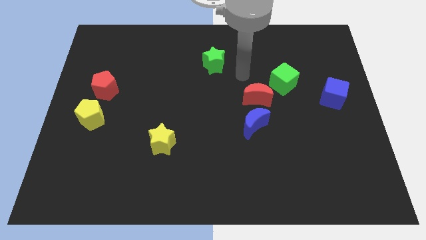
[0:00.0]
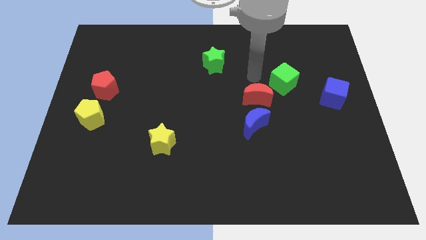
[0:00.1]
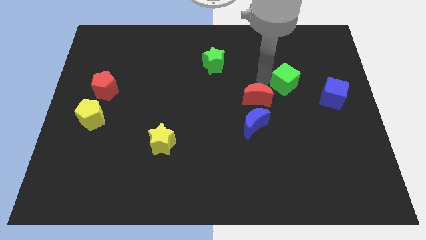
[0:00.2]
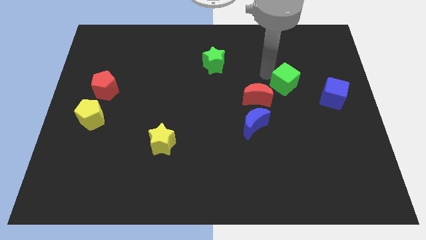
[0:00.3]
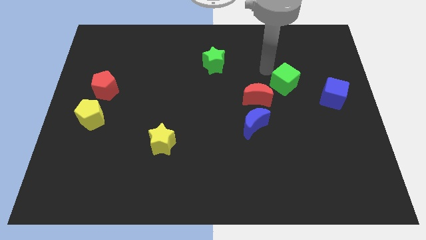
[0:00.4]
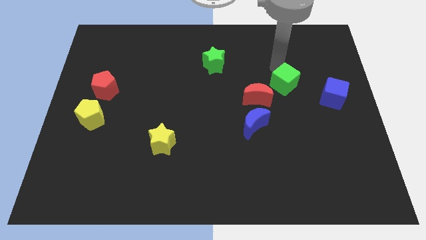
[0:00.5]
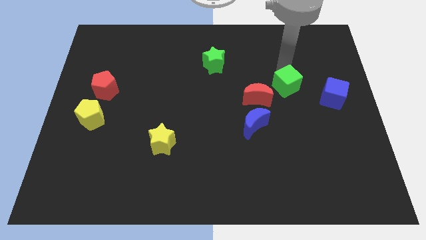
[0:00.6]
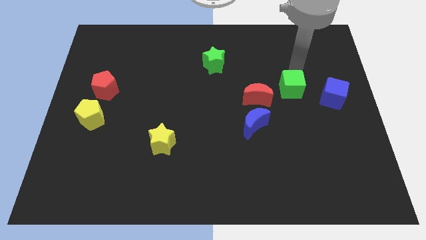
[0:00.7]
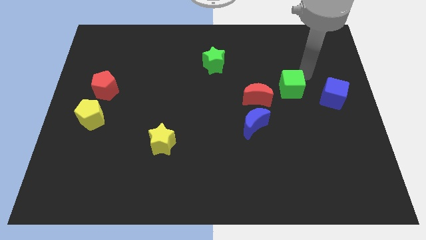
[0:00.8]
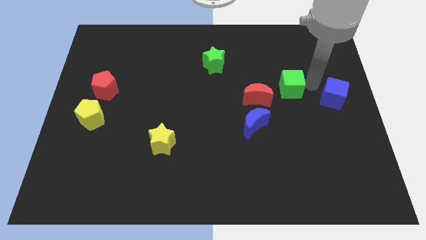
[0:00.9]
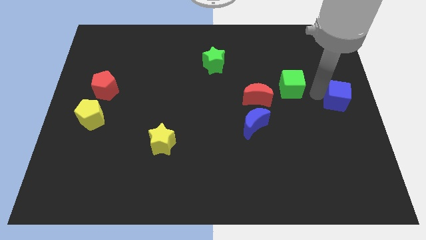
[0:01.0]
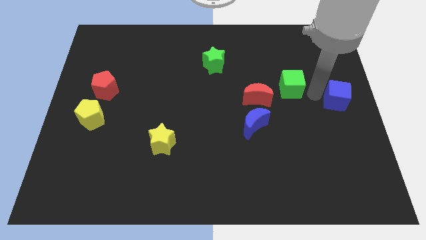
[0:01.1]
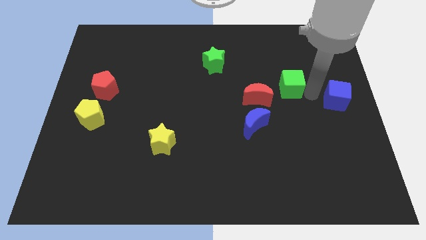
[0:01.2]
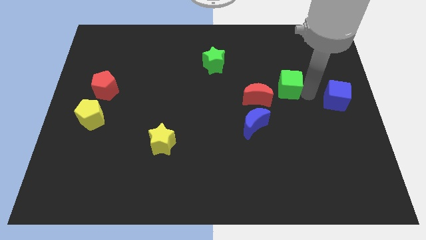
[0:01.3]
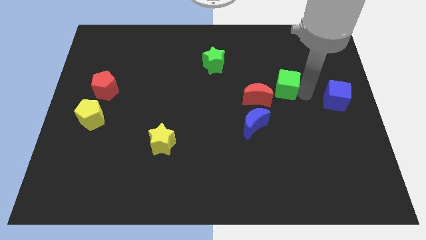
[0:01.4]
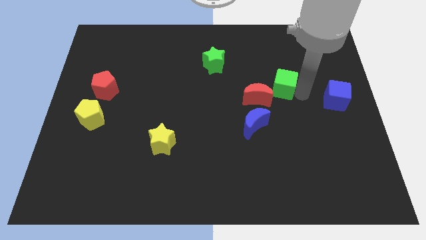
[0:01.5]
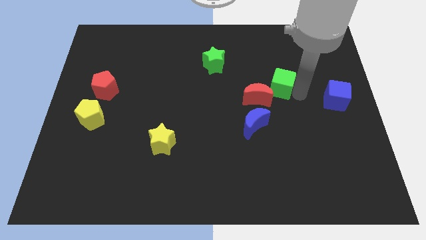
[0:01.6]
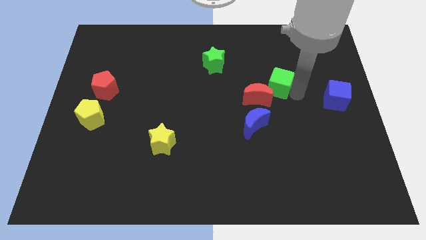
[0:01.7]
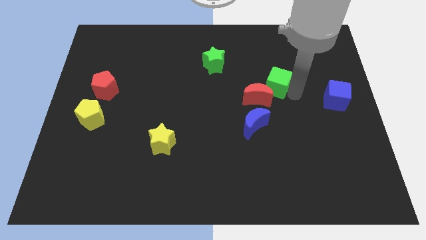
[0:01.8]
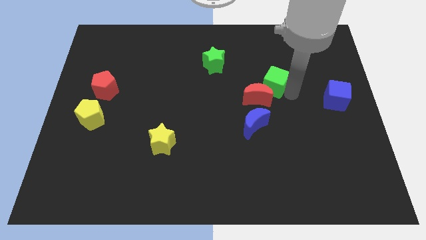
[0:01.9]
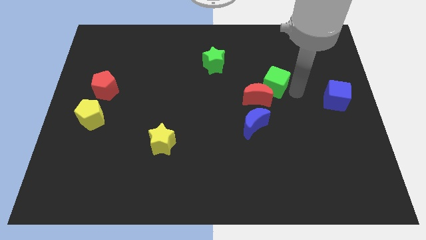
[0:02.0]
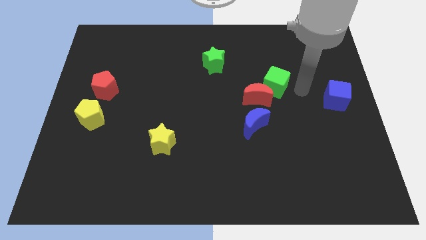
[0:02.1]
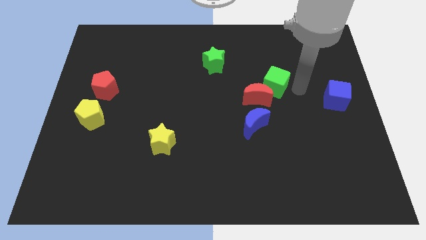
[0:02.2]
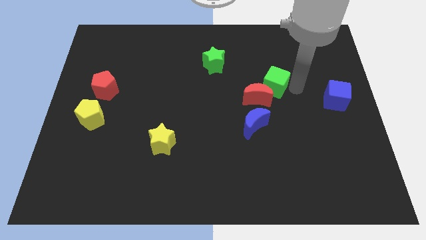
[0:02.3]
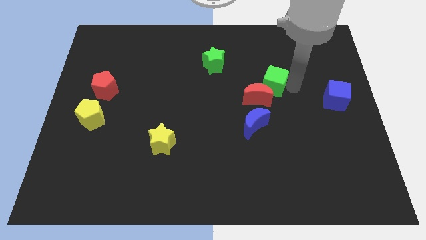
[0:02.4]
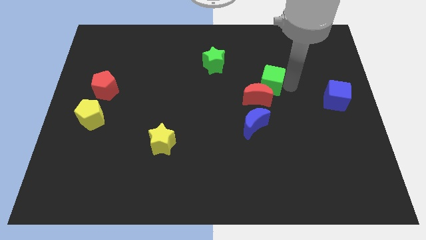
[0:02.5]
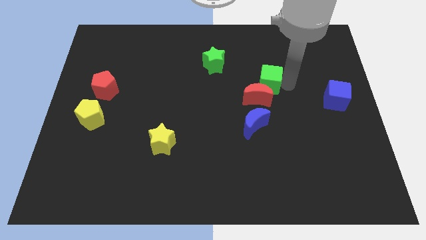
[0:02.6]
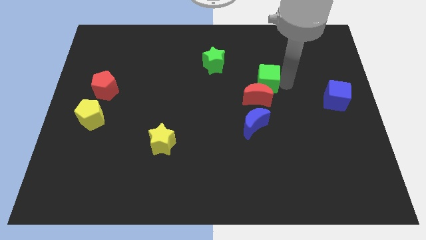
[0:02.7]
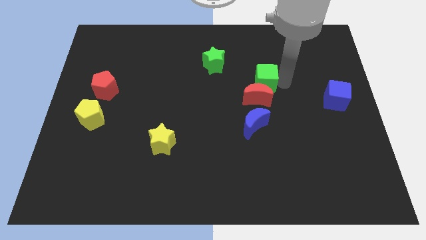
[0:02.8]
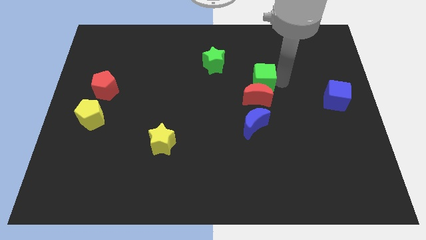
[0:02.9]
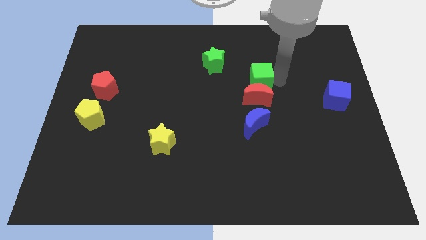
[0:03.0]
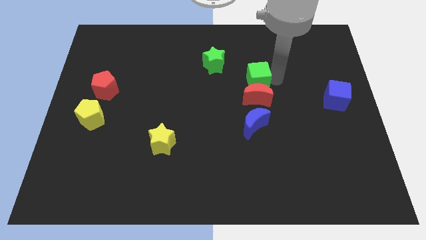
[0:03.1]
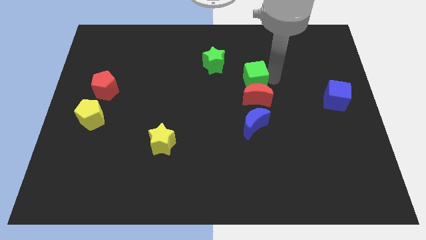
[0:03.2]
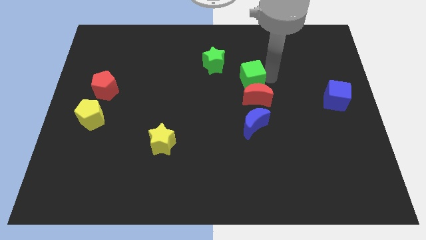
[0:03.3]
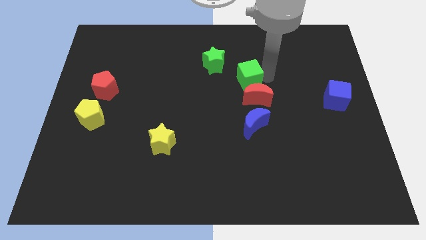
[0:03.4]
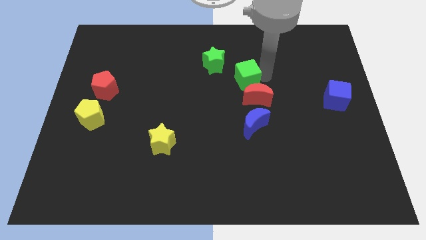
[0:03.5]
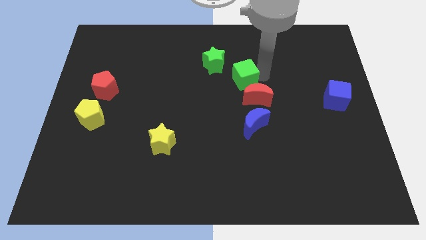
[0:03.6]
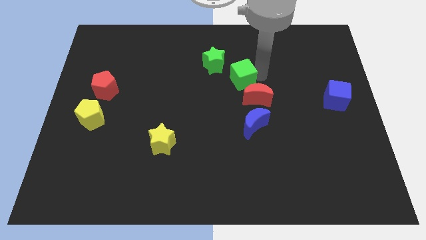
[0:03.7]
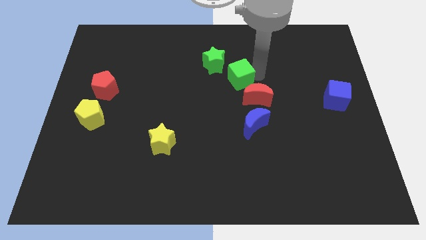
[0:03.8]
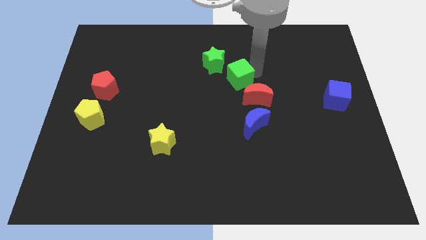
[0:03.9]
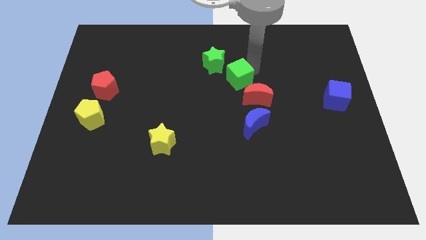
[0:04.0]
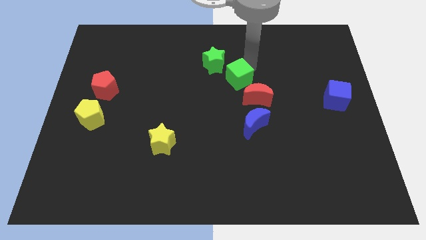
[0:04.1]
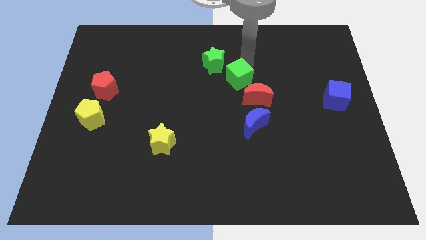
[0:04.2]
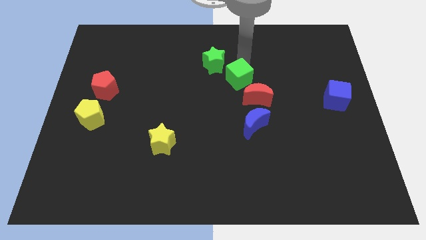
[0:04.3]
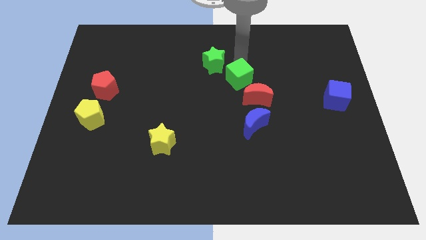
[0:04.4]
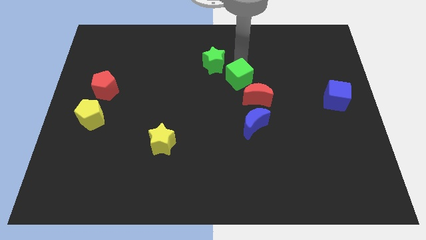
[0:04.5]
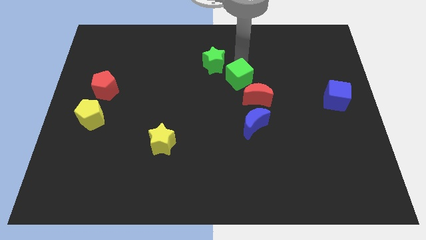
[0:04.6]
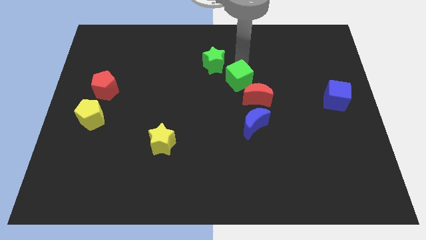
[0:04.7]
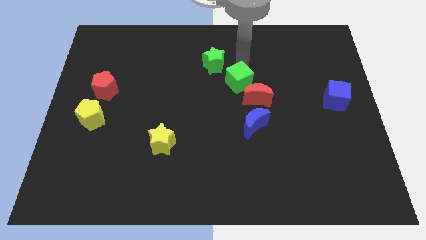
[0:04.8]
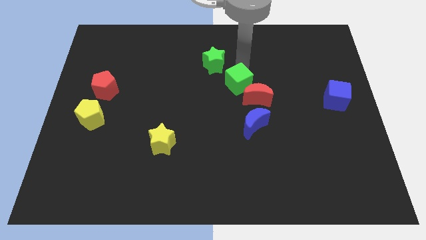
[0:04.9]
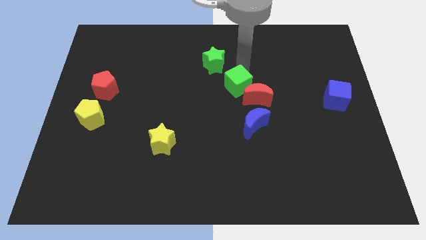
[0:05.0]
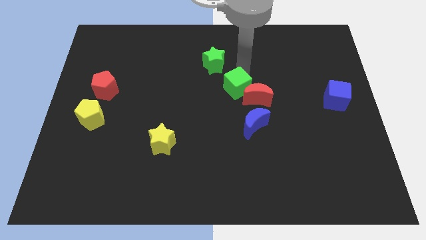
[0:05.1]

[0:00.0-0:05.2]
slightly slide the green cube down and then to the left

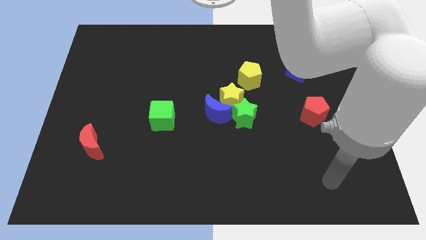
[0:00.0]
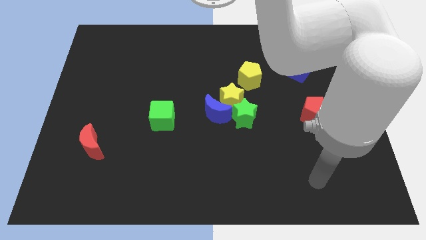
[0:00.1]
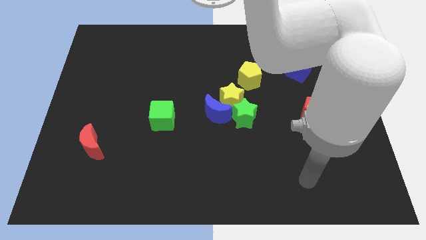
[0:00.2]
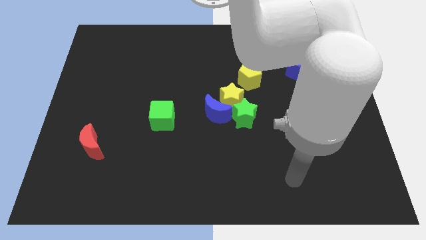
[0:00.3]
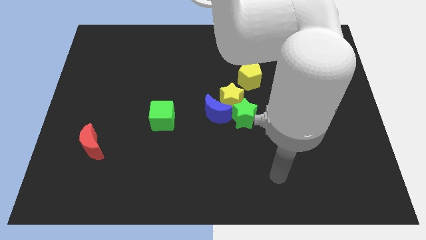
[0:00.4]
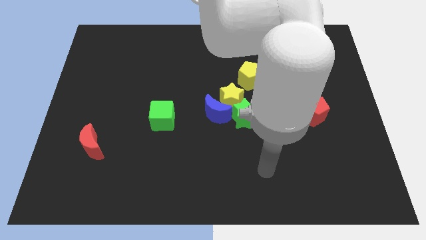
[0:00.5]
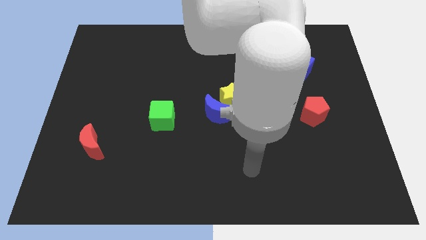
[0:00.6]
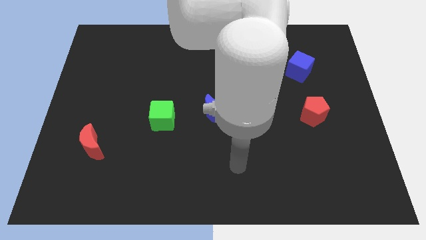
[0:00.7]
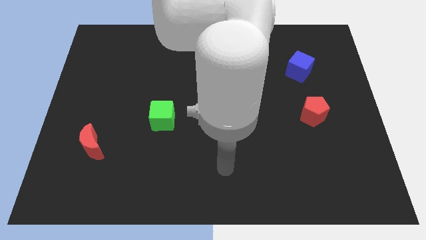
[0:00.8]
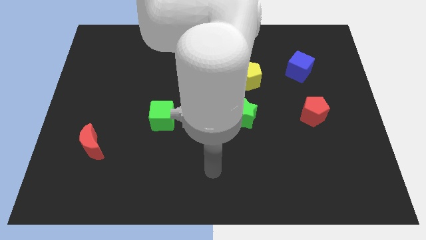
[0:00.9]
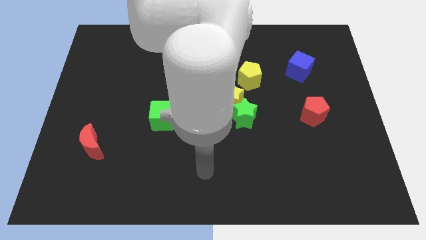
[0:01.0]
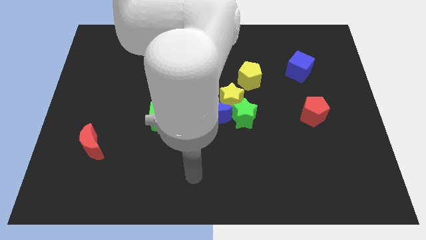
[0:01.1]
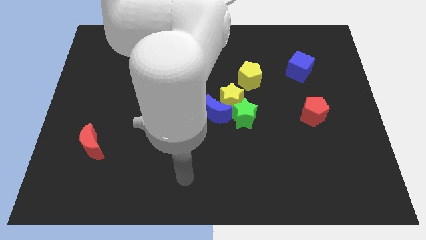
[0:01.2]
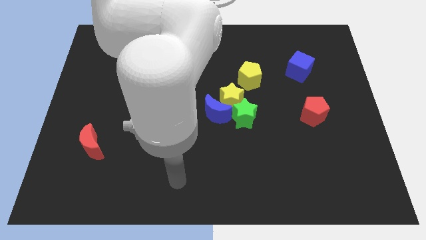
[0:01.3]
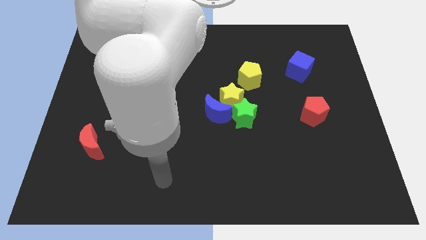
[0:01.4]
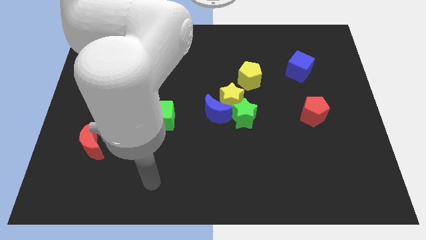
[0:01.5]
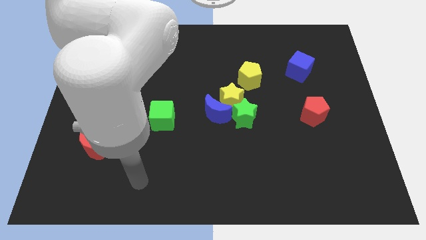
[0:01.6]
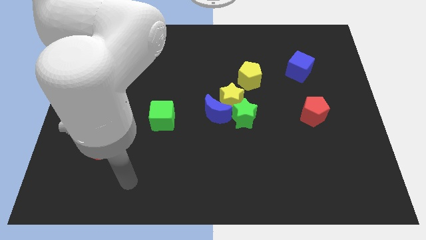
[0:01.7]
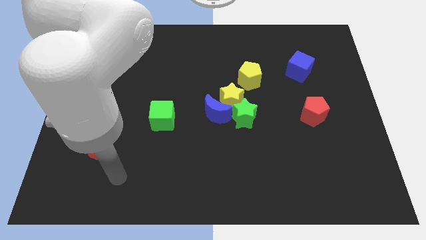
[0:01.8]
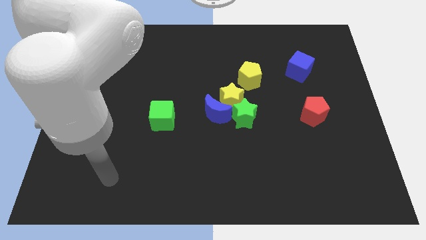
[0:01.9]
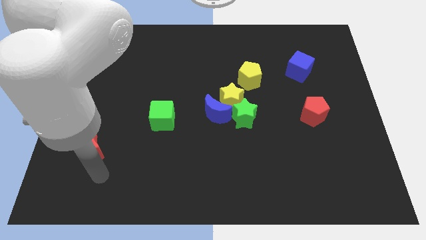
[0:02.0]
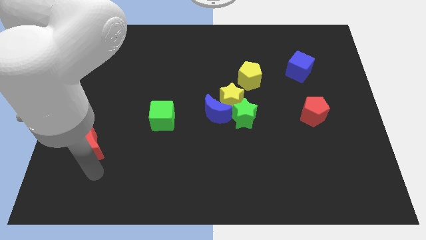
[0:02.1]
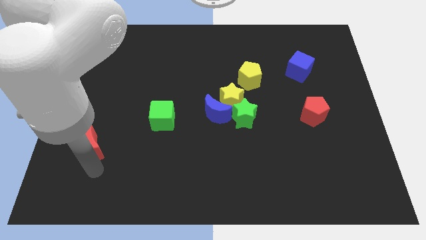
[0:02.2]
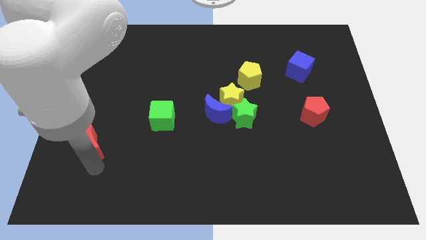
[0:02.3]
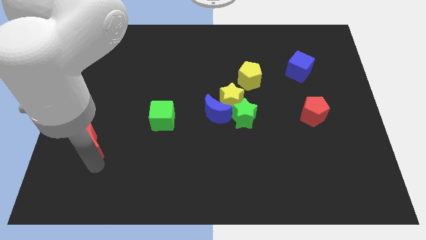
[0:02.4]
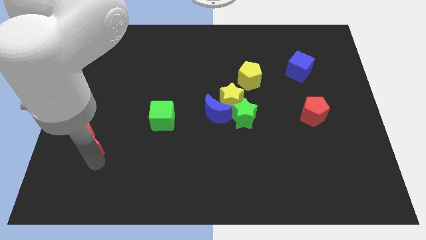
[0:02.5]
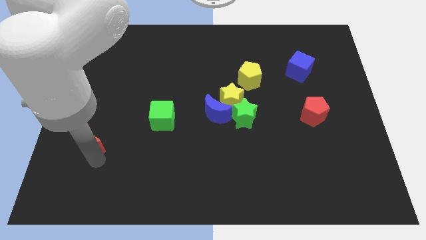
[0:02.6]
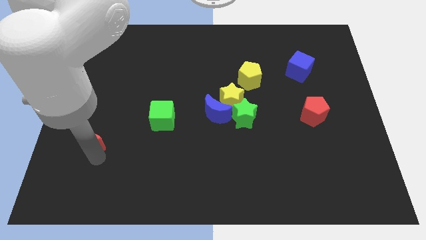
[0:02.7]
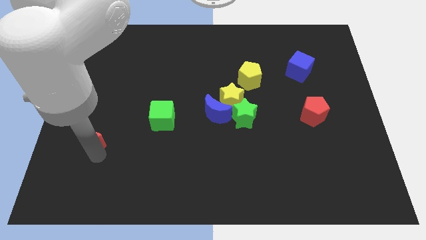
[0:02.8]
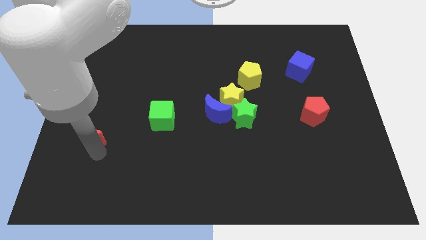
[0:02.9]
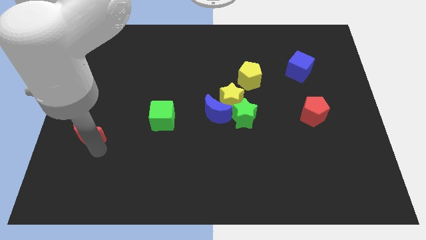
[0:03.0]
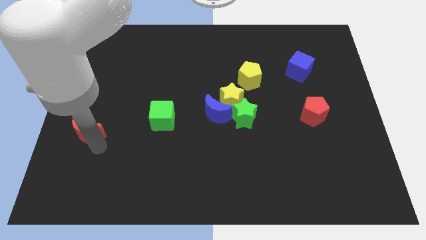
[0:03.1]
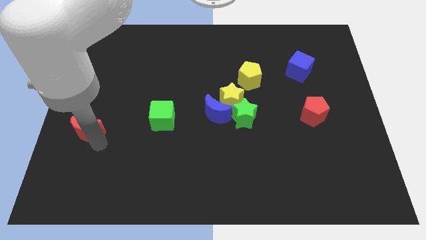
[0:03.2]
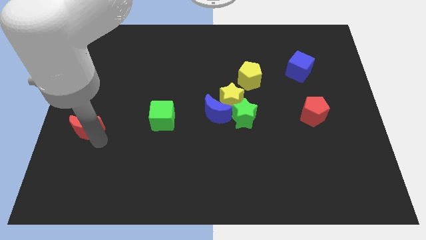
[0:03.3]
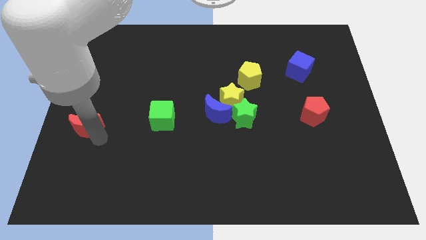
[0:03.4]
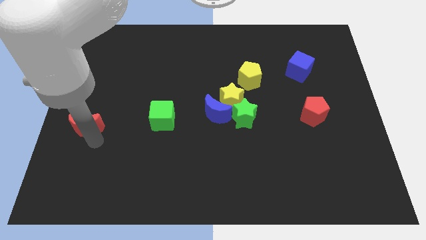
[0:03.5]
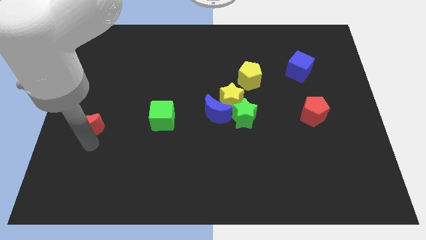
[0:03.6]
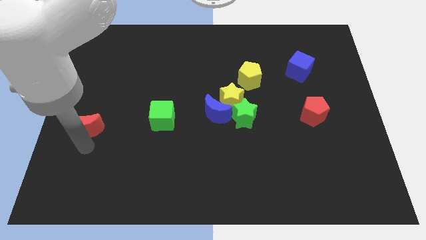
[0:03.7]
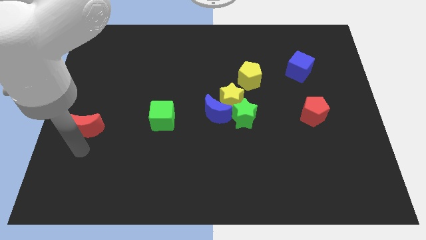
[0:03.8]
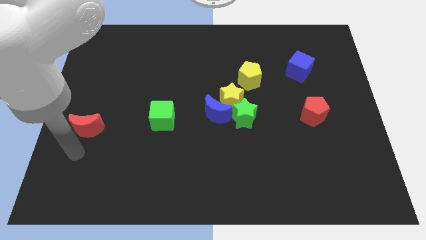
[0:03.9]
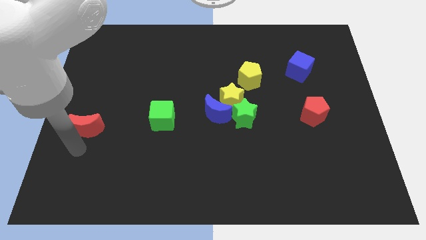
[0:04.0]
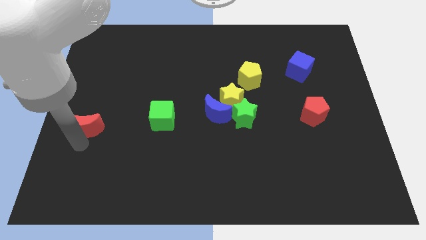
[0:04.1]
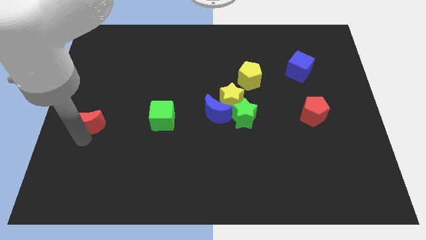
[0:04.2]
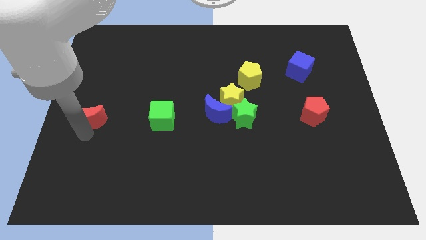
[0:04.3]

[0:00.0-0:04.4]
move the red moon a little bit upwards
